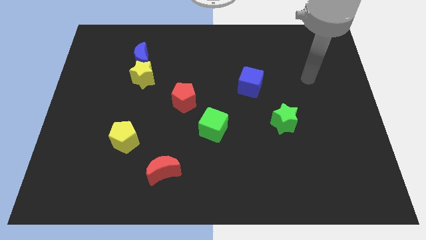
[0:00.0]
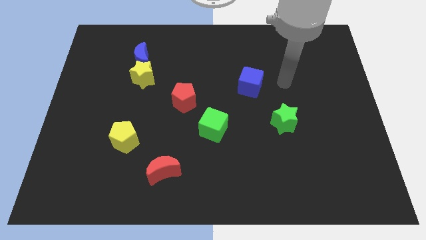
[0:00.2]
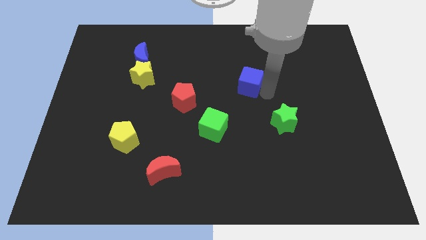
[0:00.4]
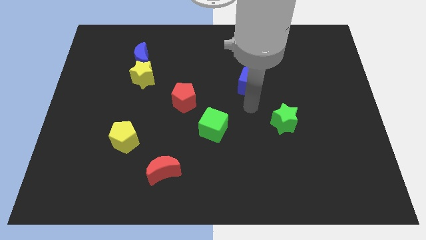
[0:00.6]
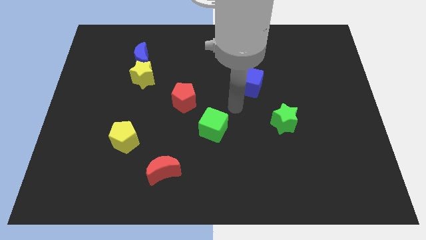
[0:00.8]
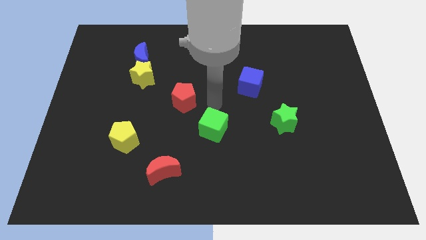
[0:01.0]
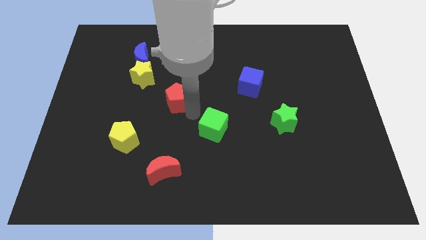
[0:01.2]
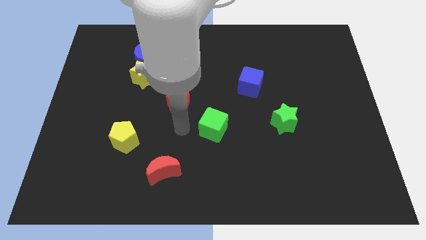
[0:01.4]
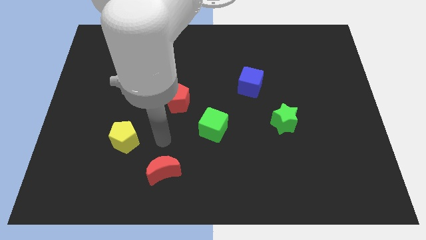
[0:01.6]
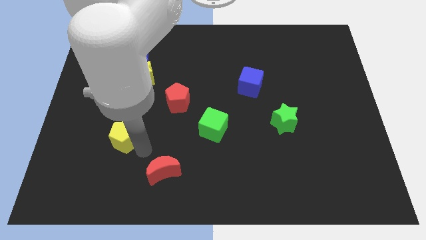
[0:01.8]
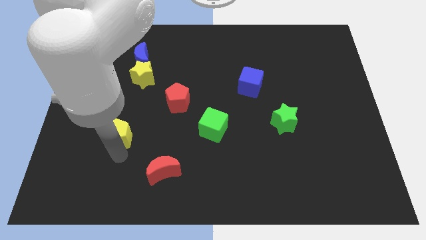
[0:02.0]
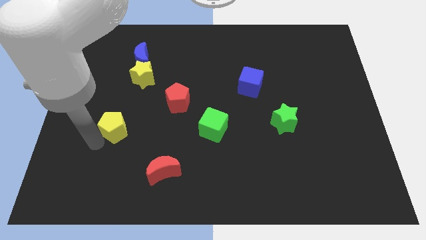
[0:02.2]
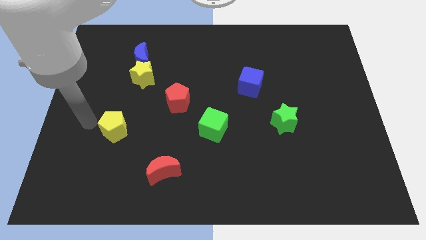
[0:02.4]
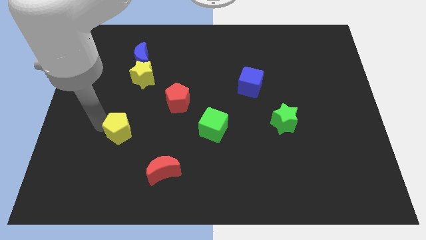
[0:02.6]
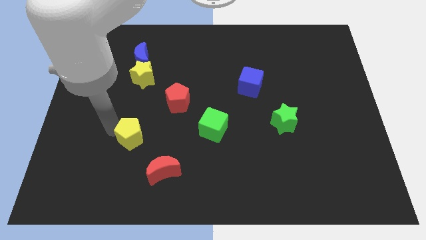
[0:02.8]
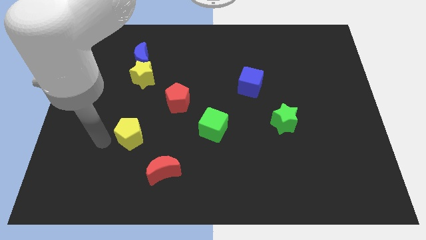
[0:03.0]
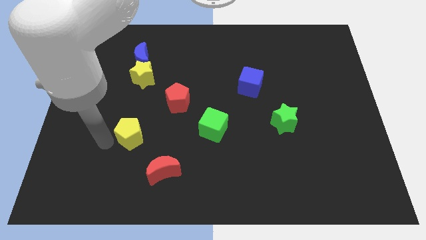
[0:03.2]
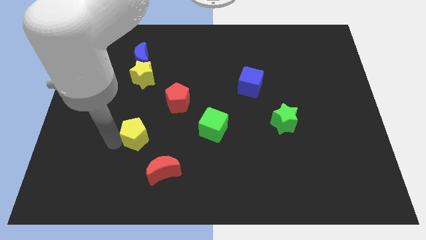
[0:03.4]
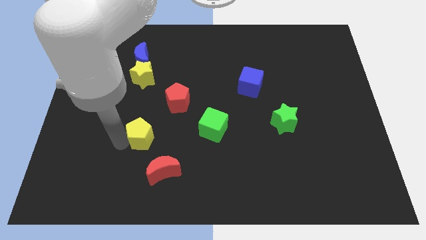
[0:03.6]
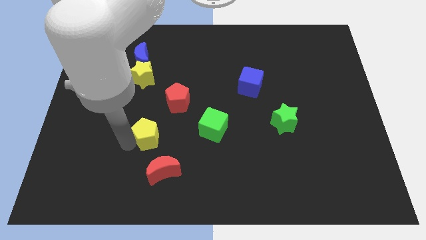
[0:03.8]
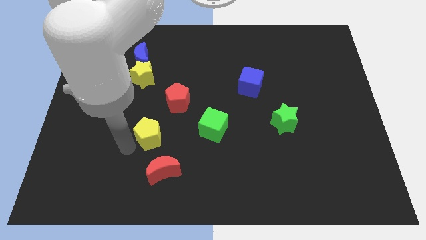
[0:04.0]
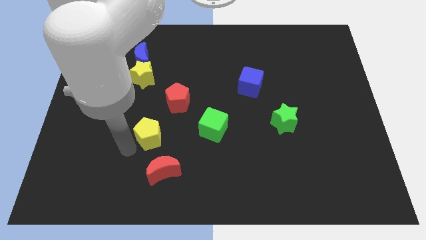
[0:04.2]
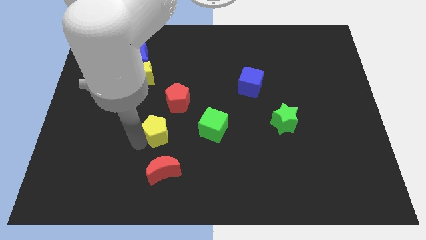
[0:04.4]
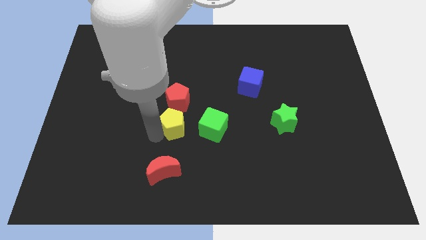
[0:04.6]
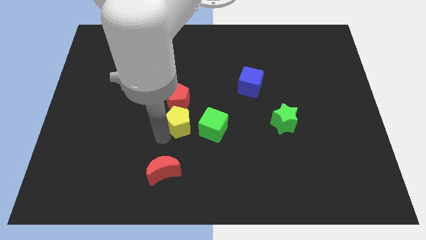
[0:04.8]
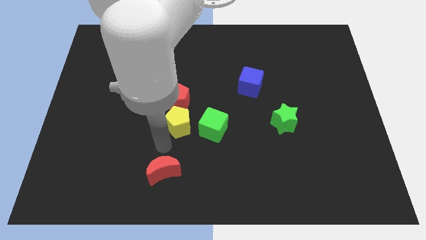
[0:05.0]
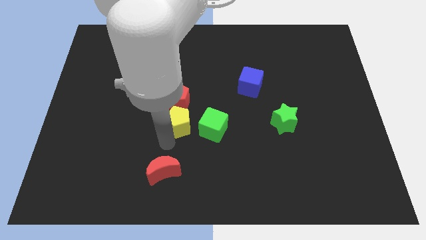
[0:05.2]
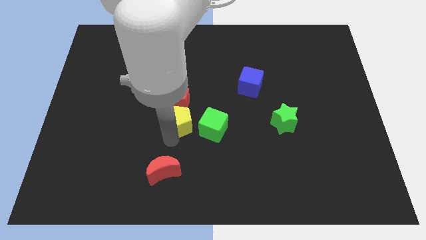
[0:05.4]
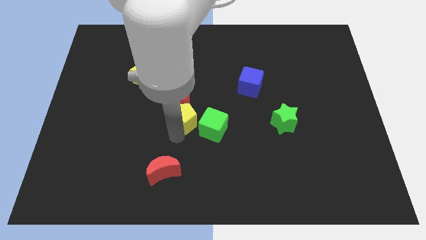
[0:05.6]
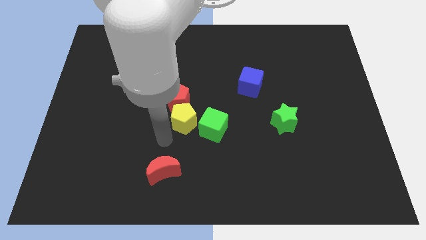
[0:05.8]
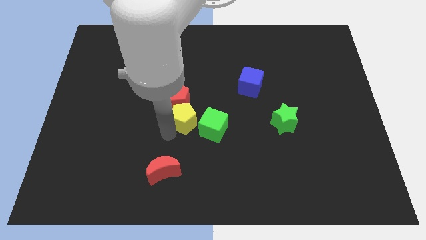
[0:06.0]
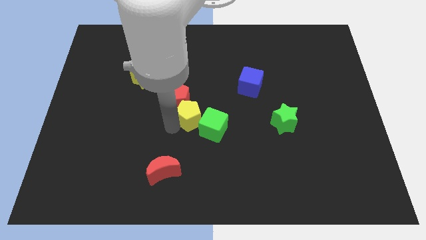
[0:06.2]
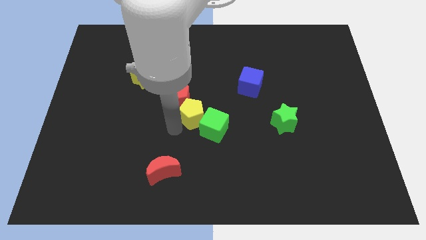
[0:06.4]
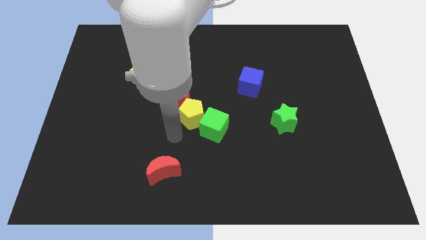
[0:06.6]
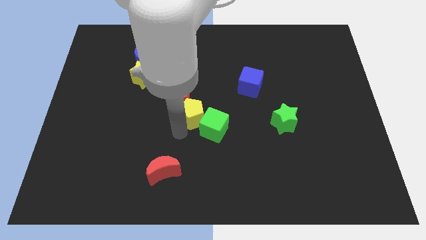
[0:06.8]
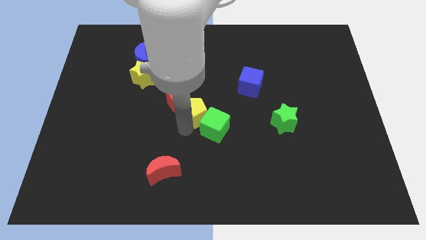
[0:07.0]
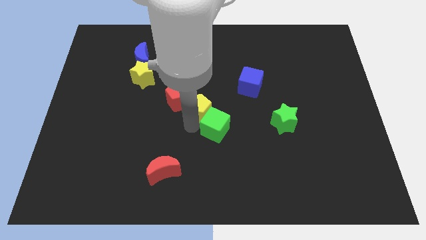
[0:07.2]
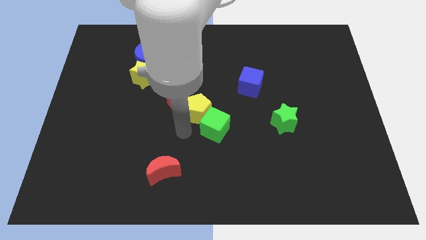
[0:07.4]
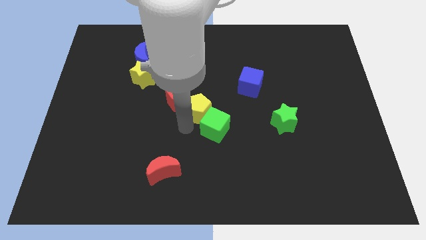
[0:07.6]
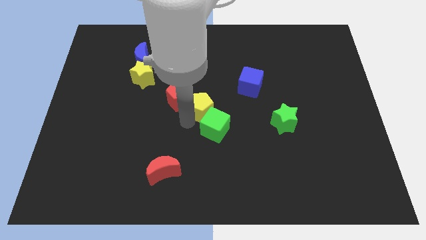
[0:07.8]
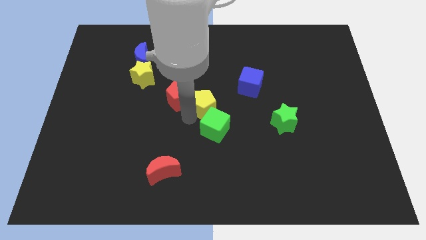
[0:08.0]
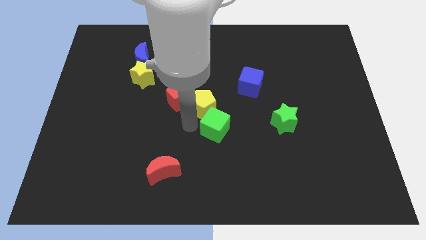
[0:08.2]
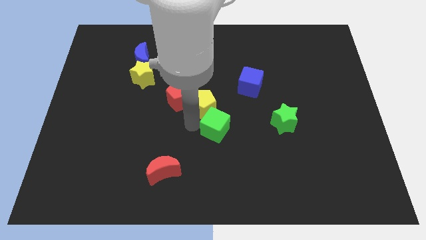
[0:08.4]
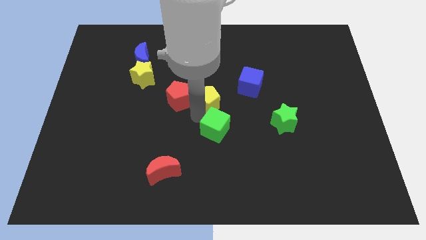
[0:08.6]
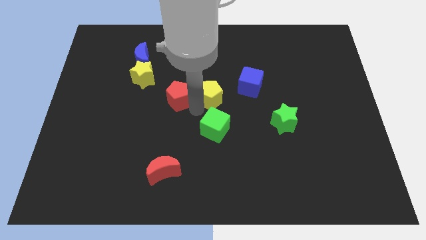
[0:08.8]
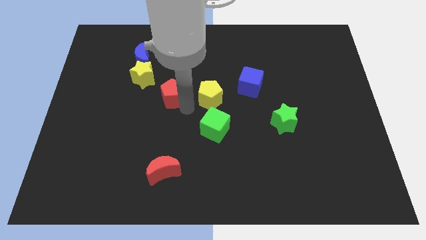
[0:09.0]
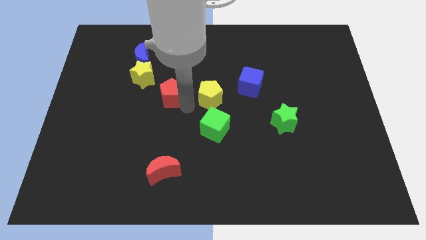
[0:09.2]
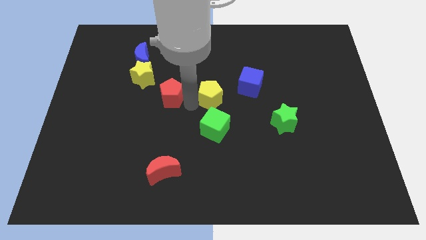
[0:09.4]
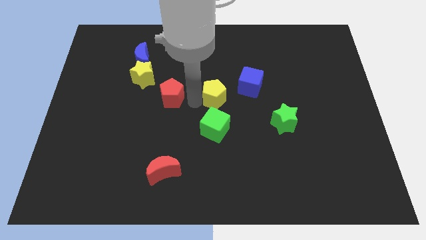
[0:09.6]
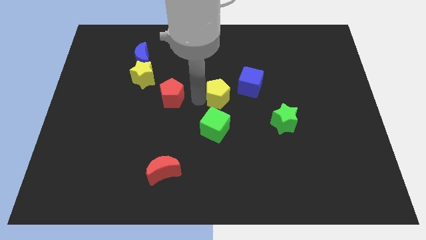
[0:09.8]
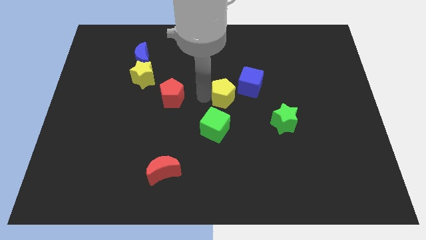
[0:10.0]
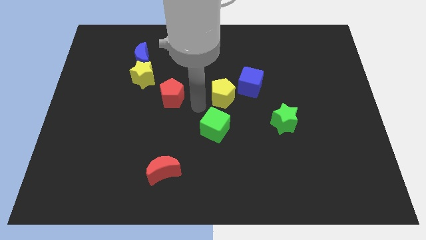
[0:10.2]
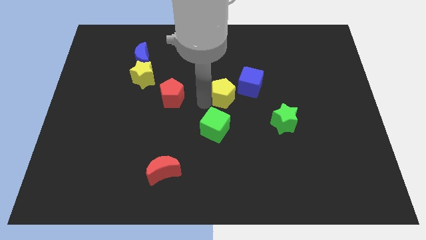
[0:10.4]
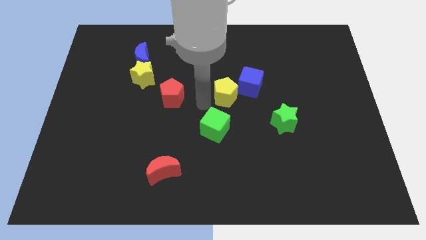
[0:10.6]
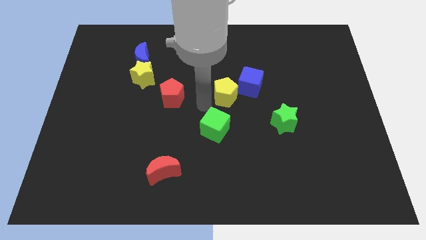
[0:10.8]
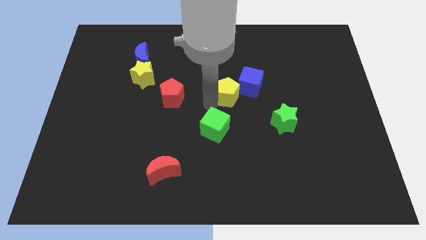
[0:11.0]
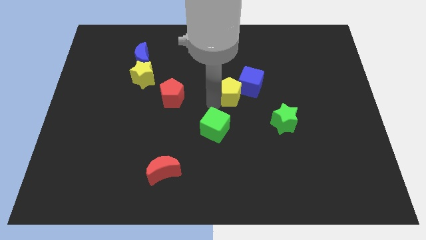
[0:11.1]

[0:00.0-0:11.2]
move the yellow pentagon next to the blue cube

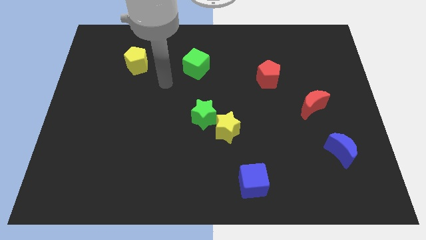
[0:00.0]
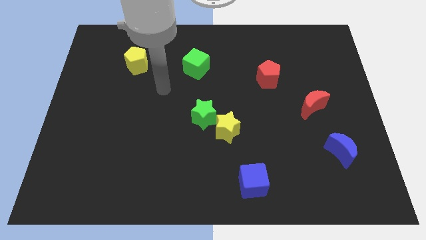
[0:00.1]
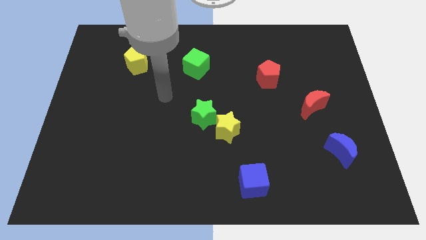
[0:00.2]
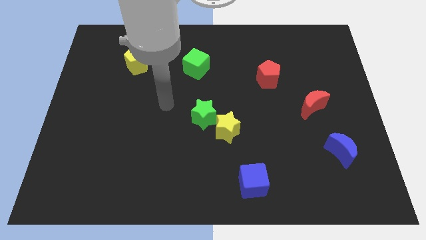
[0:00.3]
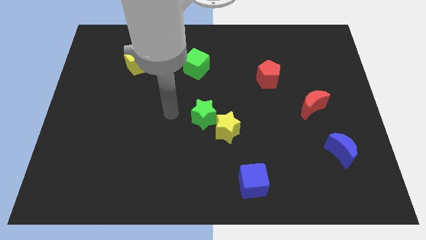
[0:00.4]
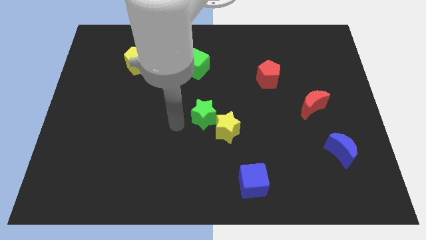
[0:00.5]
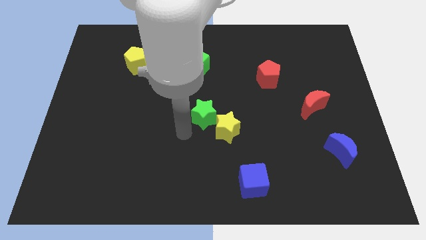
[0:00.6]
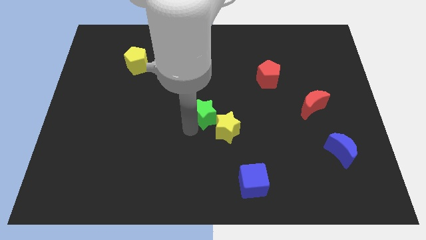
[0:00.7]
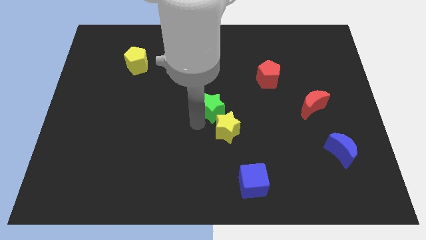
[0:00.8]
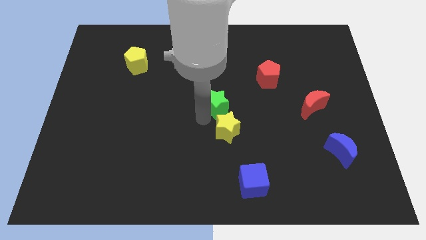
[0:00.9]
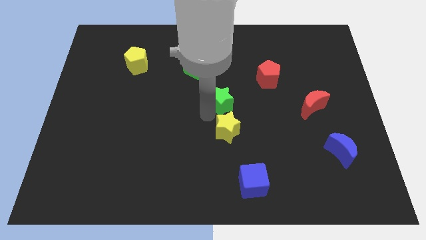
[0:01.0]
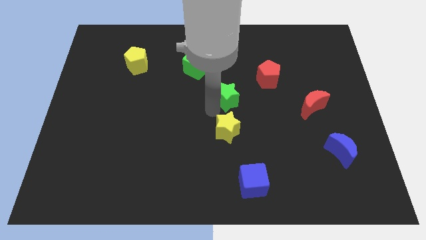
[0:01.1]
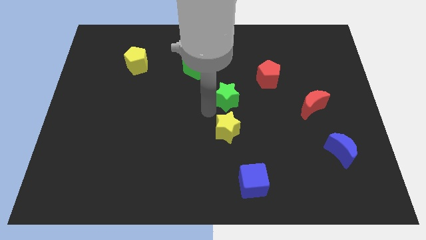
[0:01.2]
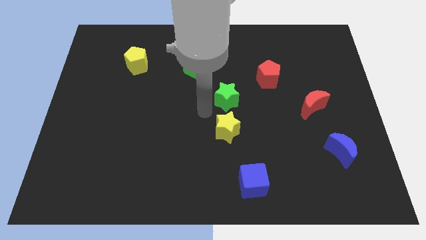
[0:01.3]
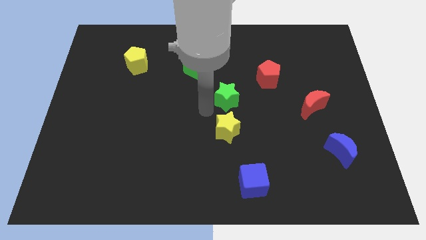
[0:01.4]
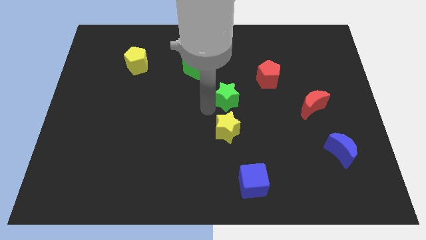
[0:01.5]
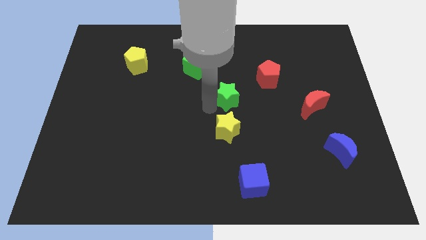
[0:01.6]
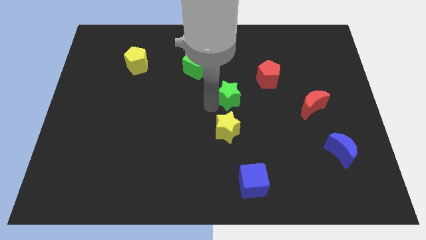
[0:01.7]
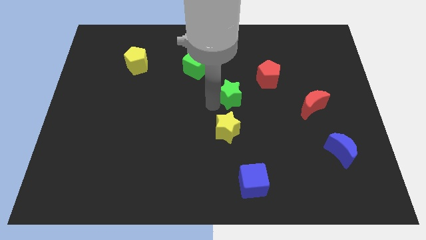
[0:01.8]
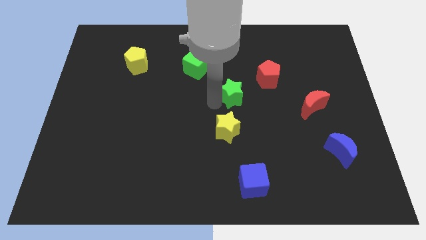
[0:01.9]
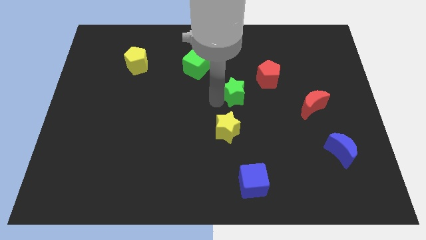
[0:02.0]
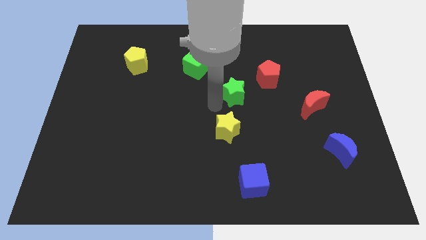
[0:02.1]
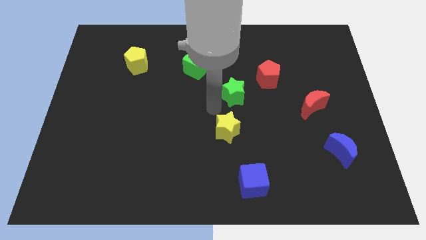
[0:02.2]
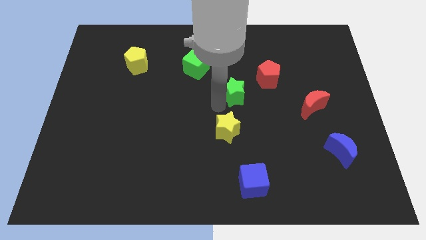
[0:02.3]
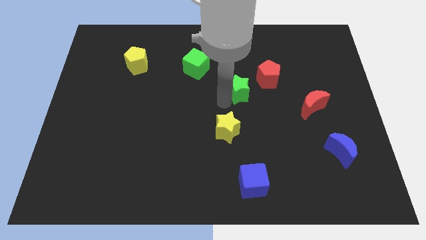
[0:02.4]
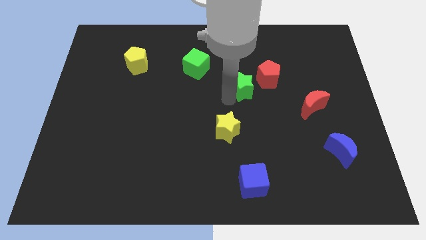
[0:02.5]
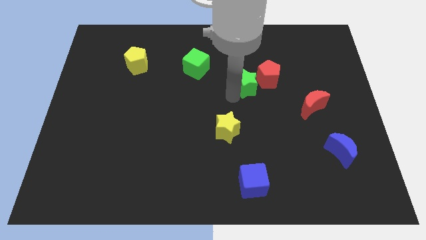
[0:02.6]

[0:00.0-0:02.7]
slide the green star to the red pentagon
